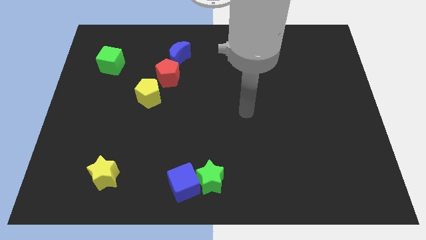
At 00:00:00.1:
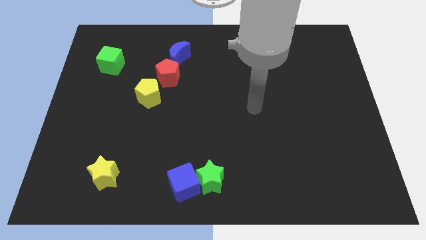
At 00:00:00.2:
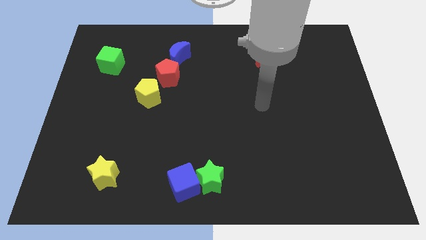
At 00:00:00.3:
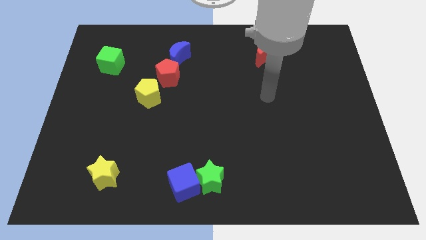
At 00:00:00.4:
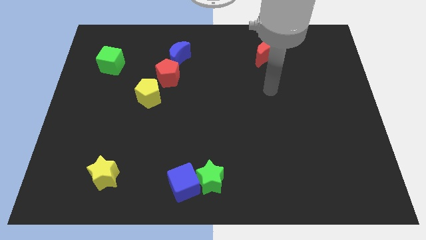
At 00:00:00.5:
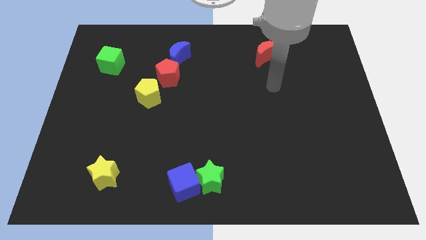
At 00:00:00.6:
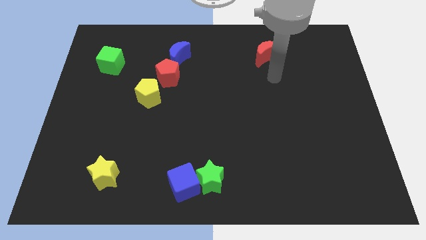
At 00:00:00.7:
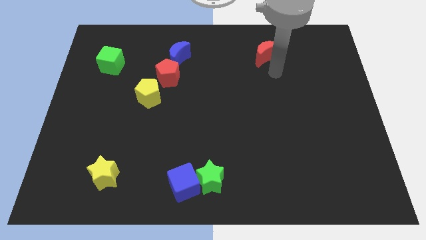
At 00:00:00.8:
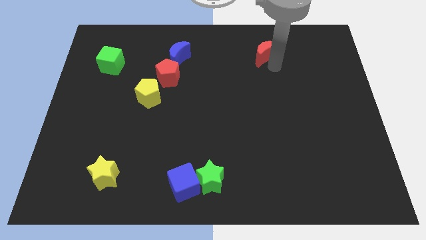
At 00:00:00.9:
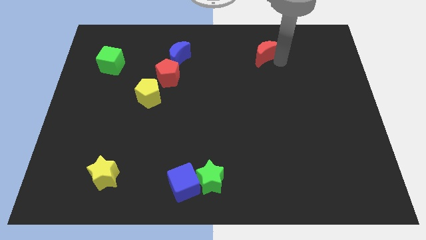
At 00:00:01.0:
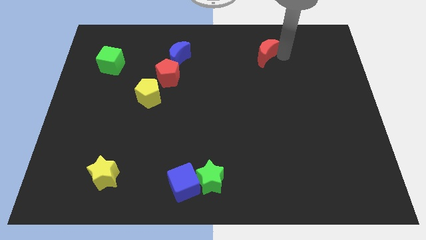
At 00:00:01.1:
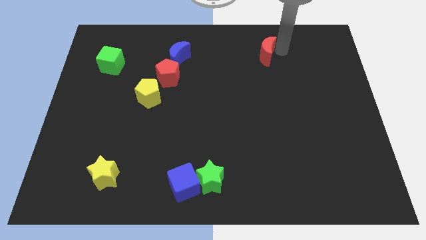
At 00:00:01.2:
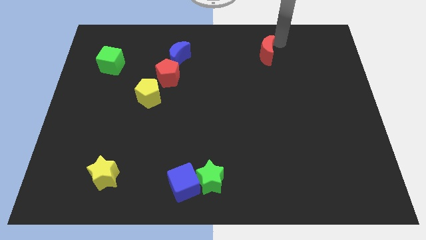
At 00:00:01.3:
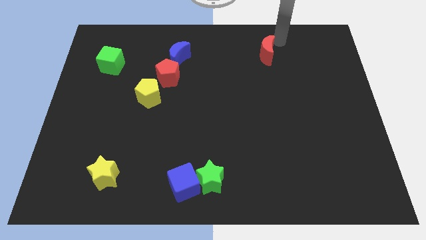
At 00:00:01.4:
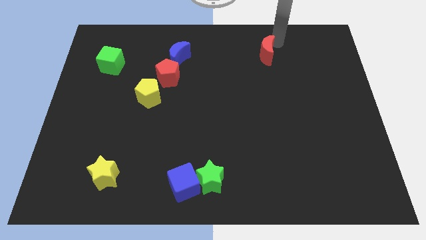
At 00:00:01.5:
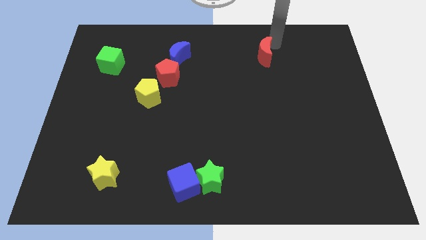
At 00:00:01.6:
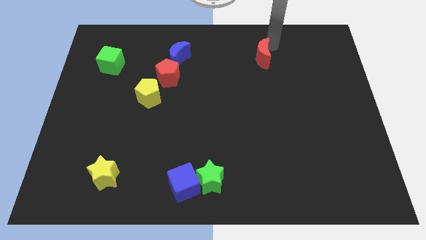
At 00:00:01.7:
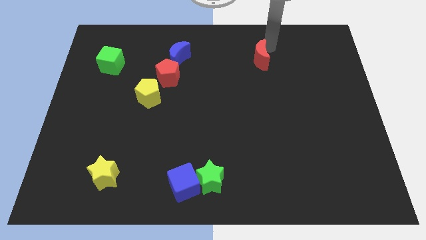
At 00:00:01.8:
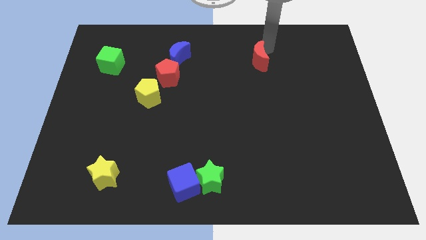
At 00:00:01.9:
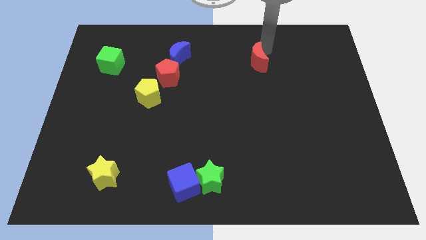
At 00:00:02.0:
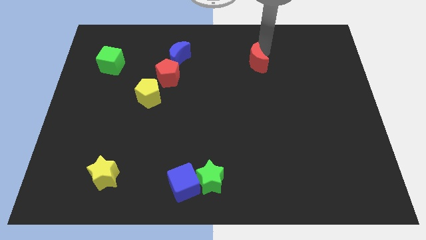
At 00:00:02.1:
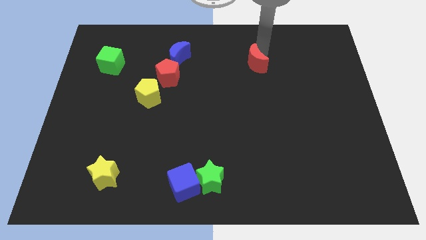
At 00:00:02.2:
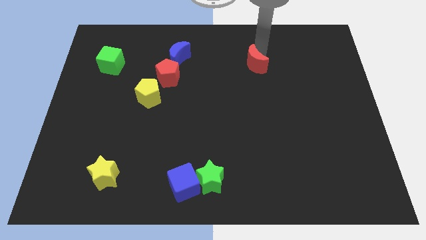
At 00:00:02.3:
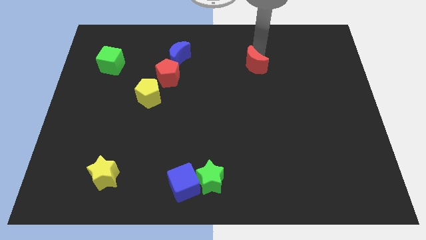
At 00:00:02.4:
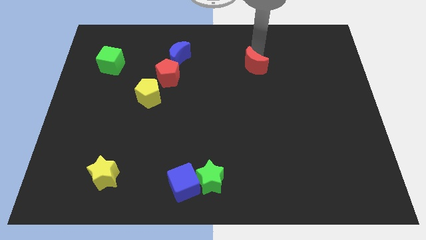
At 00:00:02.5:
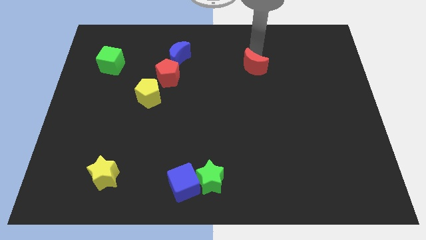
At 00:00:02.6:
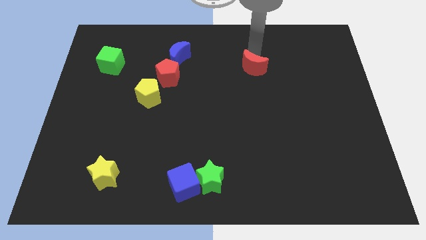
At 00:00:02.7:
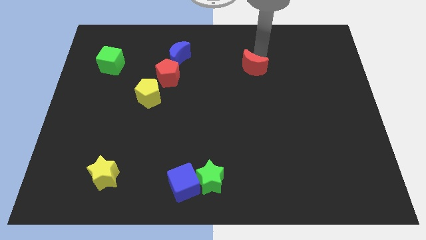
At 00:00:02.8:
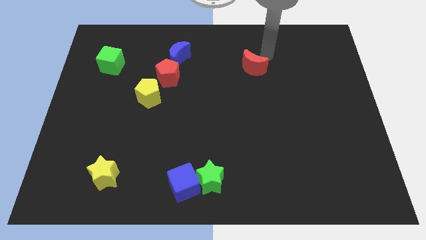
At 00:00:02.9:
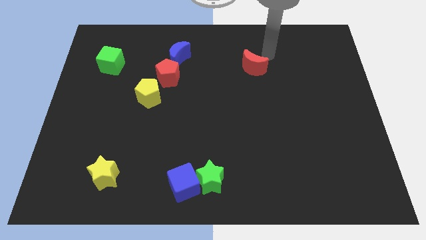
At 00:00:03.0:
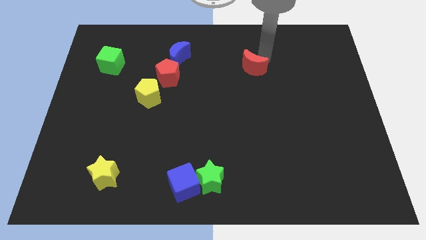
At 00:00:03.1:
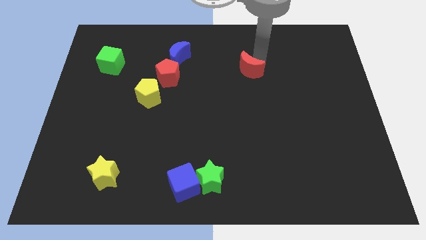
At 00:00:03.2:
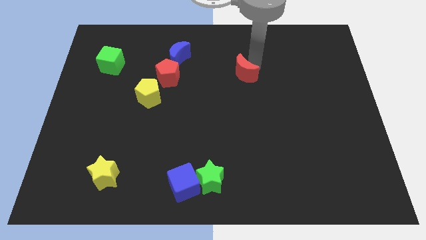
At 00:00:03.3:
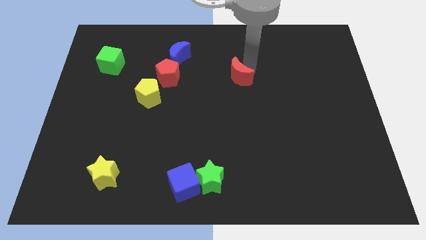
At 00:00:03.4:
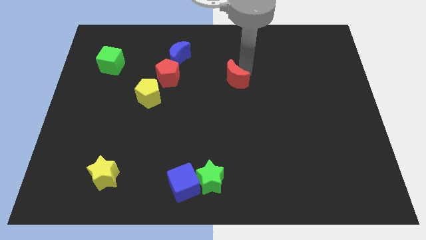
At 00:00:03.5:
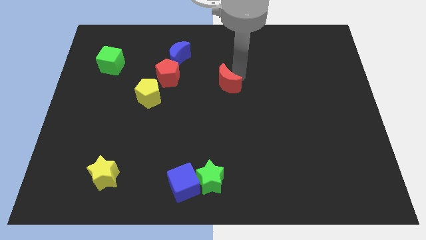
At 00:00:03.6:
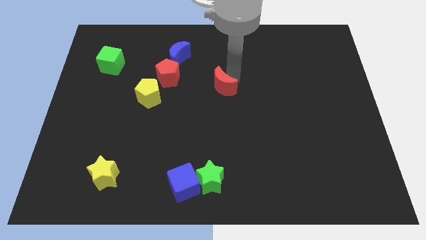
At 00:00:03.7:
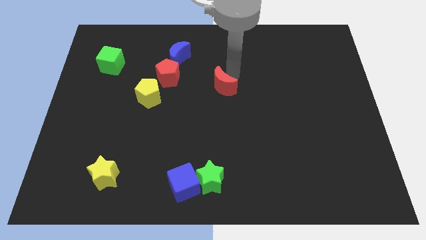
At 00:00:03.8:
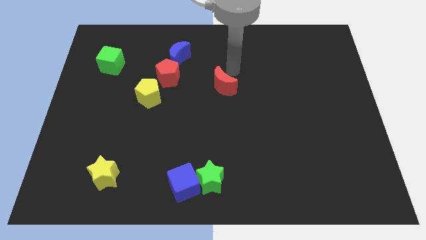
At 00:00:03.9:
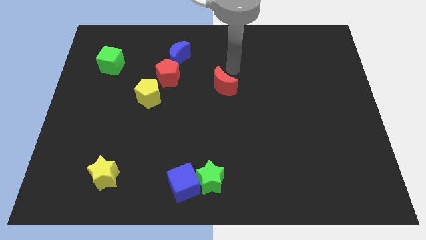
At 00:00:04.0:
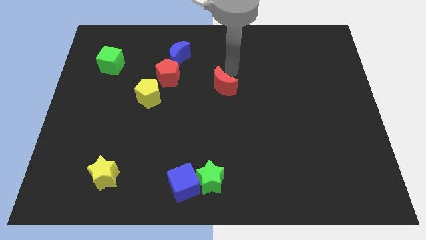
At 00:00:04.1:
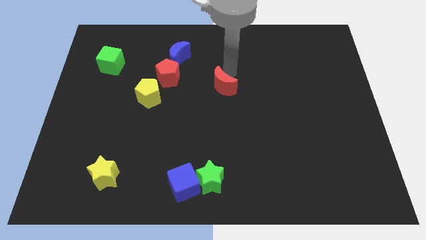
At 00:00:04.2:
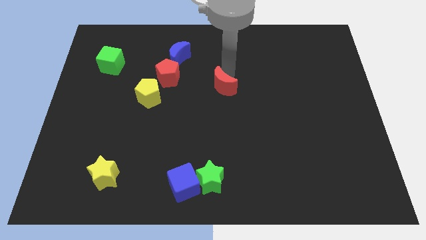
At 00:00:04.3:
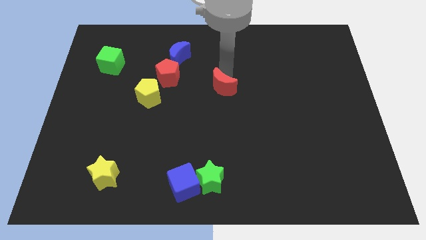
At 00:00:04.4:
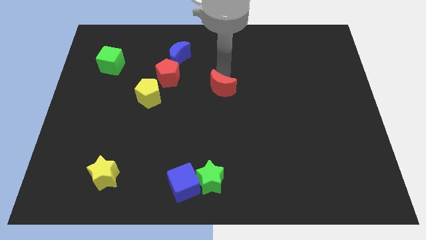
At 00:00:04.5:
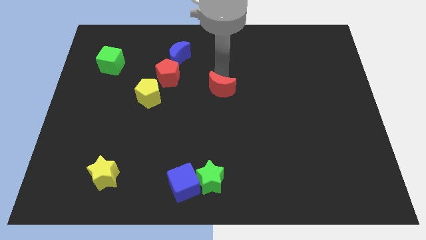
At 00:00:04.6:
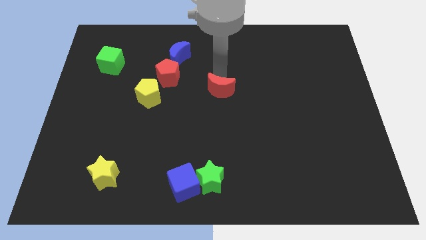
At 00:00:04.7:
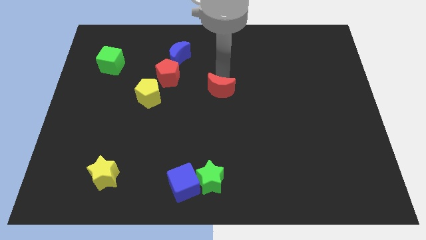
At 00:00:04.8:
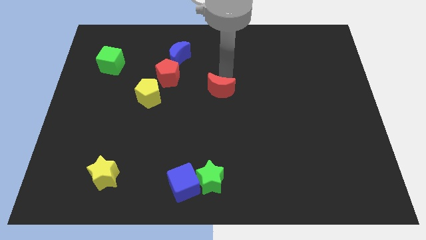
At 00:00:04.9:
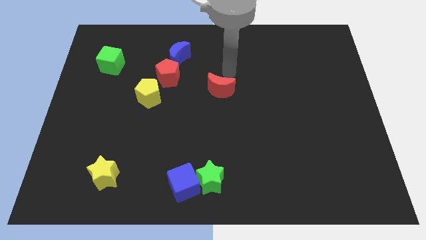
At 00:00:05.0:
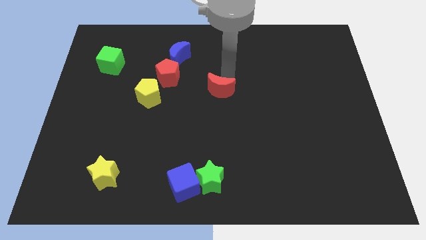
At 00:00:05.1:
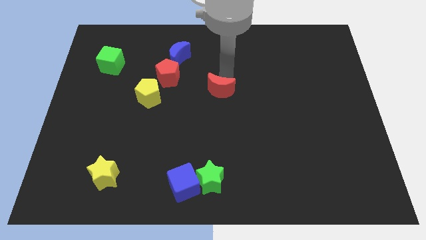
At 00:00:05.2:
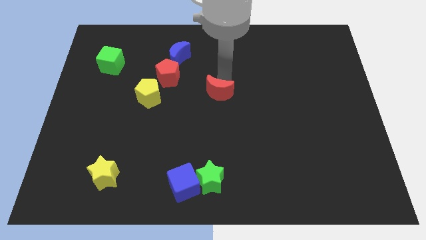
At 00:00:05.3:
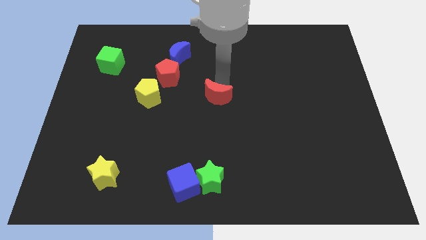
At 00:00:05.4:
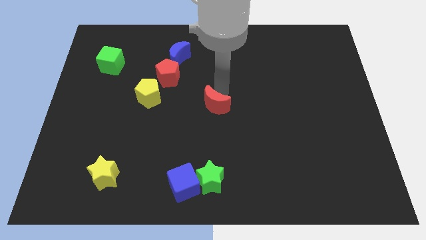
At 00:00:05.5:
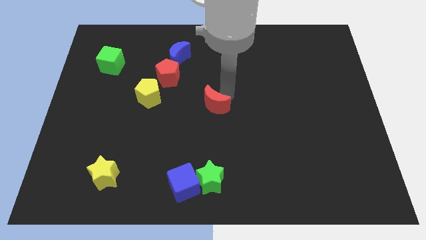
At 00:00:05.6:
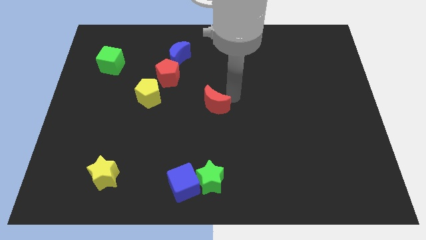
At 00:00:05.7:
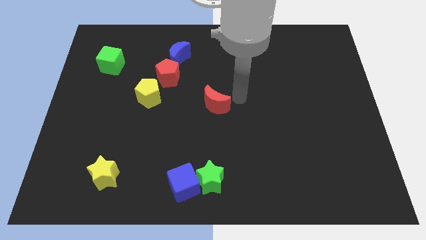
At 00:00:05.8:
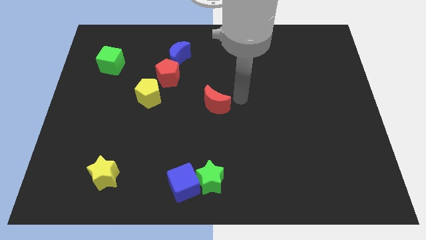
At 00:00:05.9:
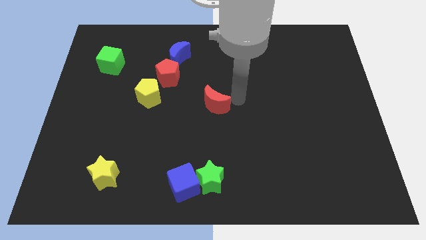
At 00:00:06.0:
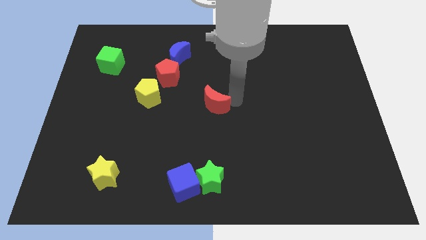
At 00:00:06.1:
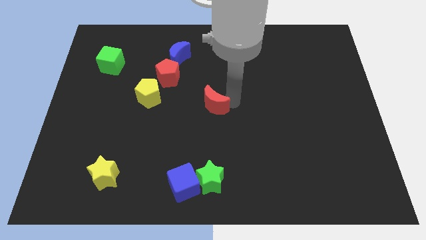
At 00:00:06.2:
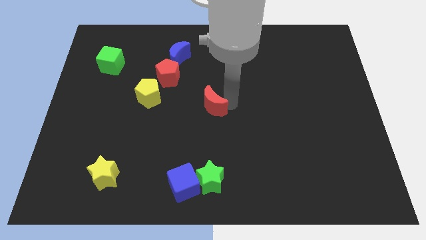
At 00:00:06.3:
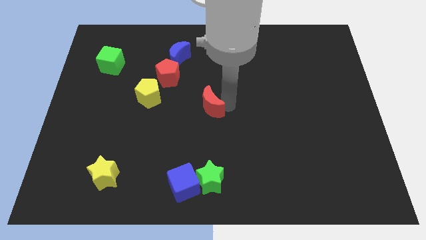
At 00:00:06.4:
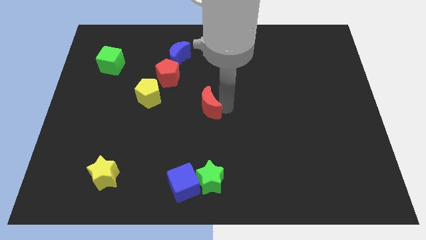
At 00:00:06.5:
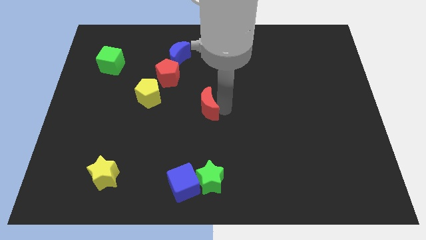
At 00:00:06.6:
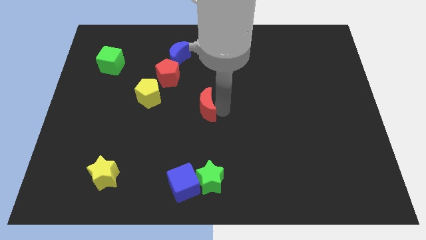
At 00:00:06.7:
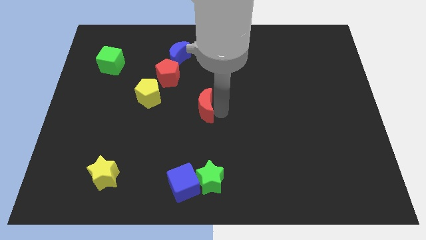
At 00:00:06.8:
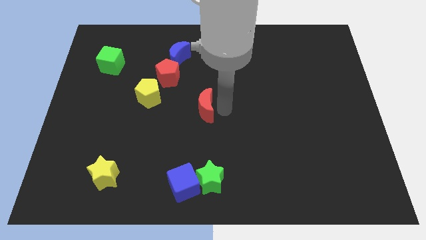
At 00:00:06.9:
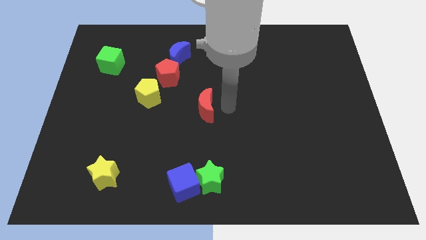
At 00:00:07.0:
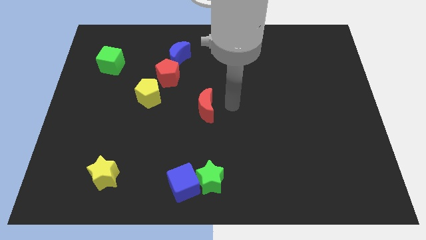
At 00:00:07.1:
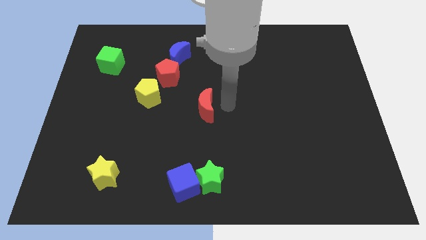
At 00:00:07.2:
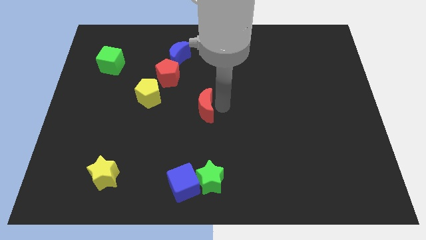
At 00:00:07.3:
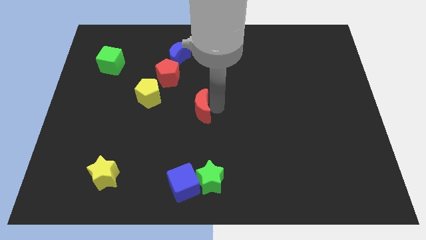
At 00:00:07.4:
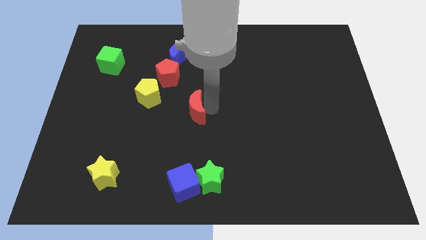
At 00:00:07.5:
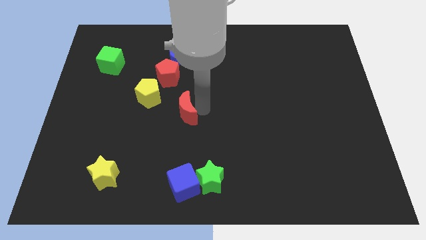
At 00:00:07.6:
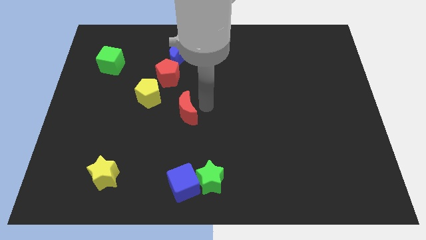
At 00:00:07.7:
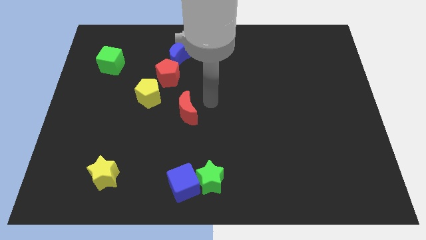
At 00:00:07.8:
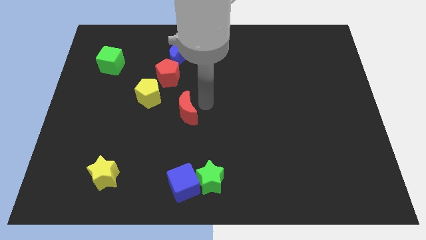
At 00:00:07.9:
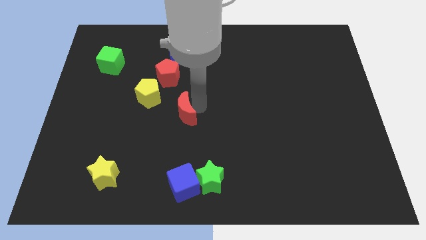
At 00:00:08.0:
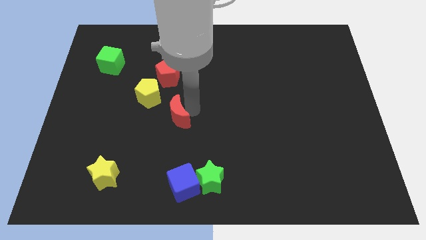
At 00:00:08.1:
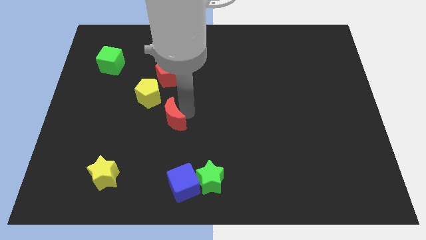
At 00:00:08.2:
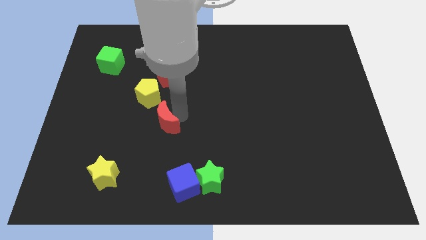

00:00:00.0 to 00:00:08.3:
move the red moon to the bottom side of the yellow pentagon
